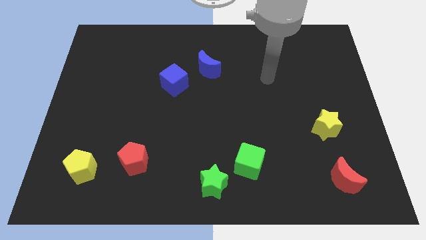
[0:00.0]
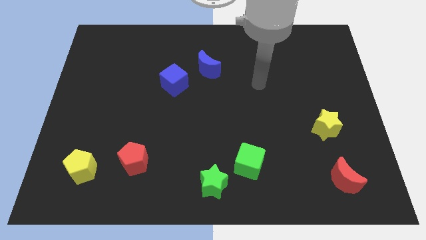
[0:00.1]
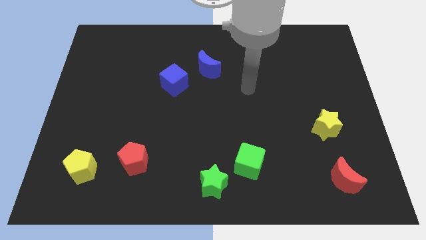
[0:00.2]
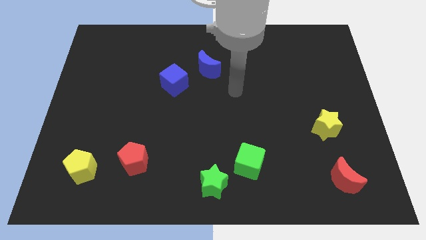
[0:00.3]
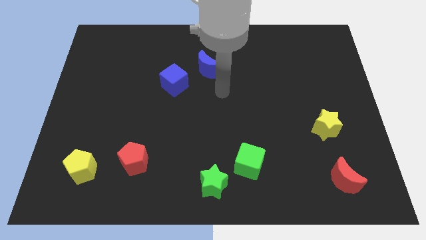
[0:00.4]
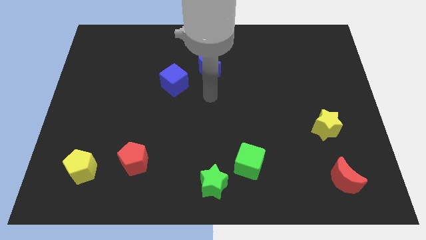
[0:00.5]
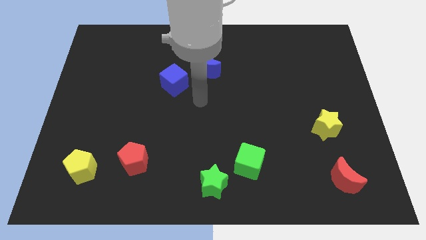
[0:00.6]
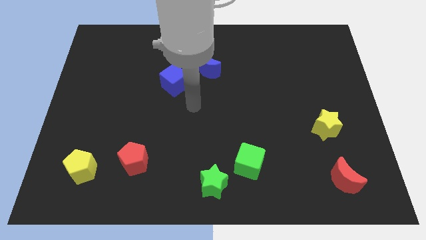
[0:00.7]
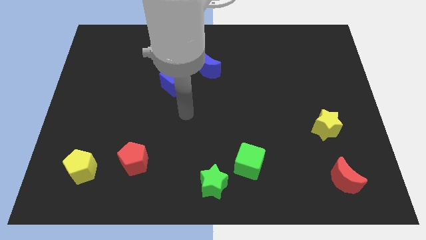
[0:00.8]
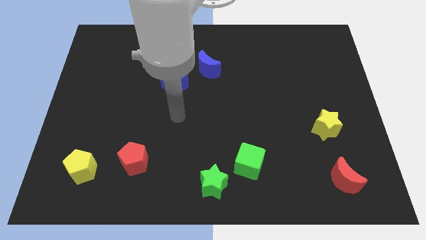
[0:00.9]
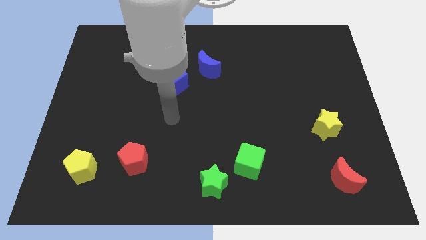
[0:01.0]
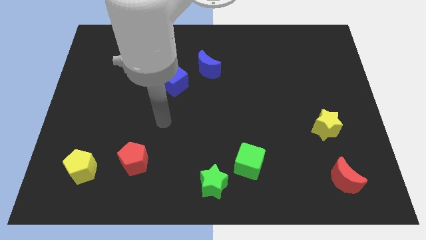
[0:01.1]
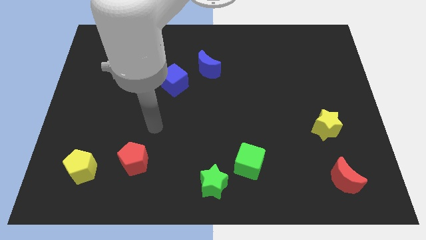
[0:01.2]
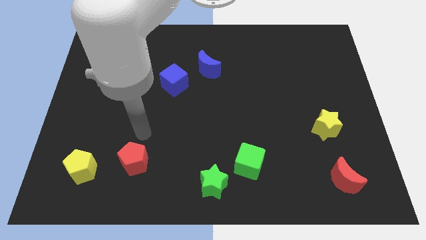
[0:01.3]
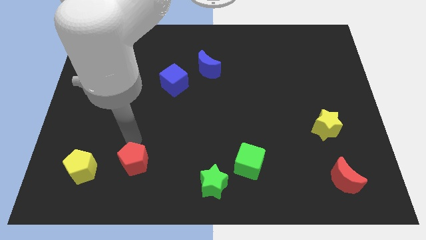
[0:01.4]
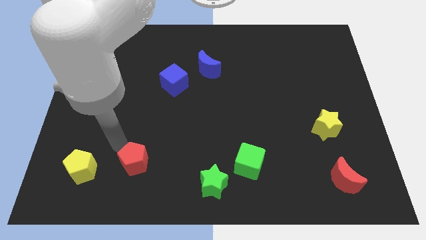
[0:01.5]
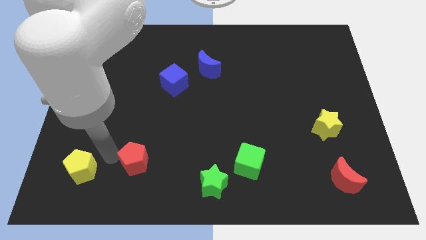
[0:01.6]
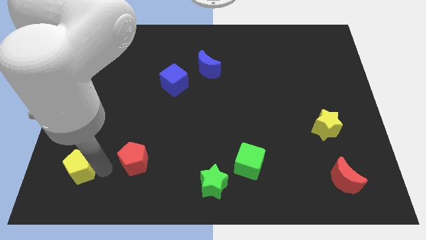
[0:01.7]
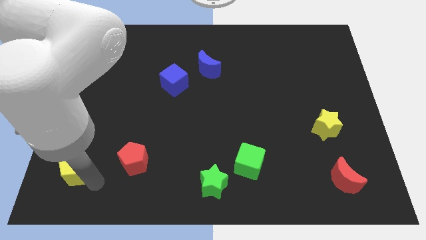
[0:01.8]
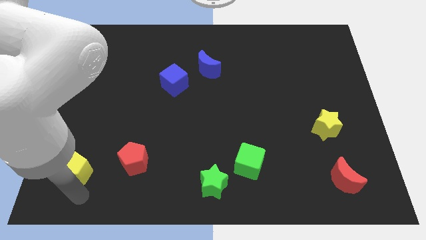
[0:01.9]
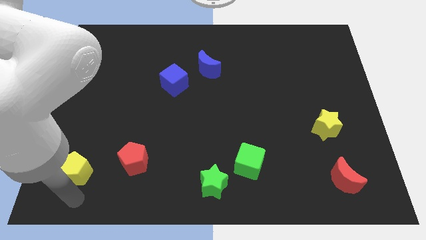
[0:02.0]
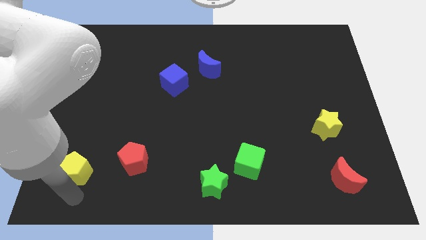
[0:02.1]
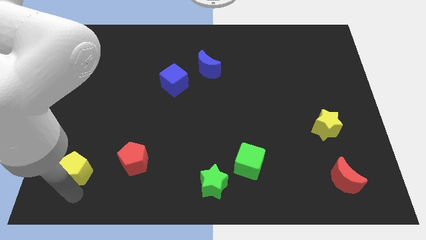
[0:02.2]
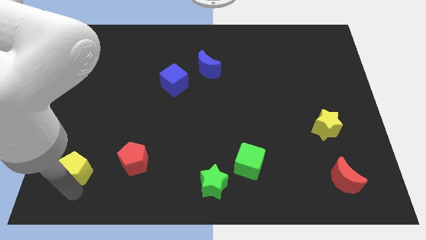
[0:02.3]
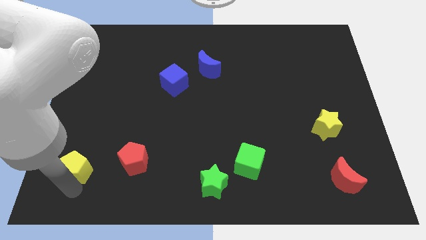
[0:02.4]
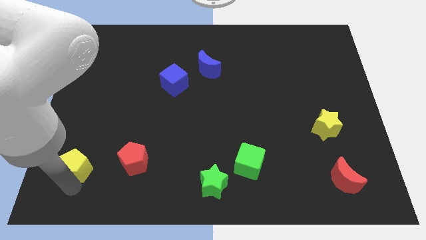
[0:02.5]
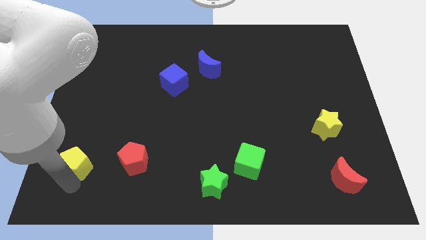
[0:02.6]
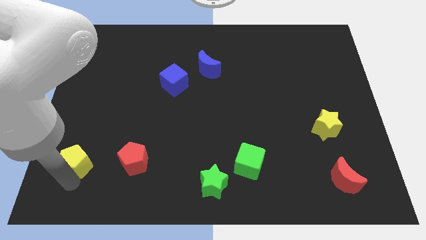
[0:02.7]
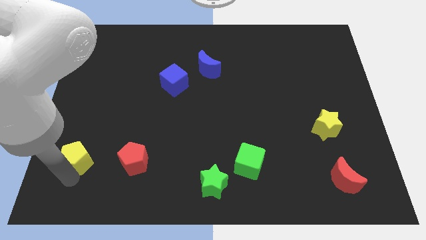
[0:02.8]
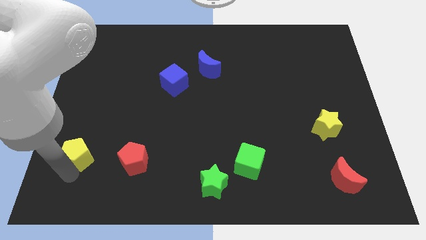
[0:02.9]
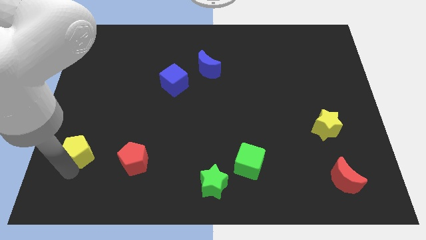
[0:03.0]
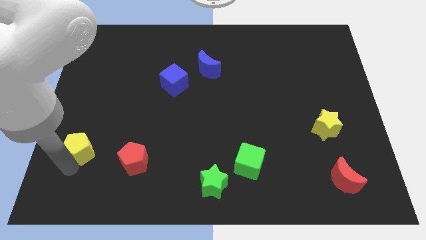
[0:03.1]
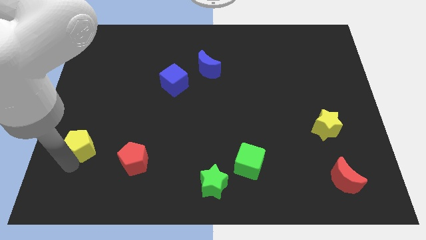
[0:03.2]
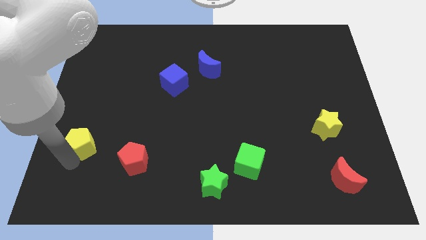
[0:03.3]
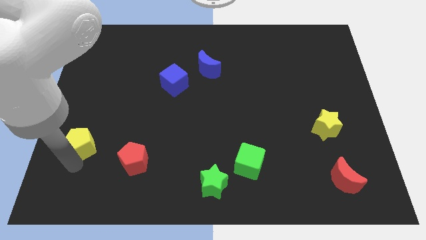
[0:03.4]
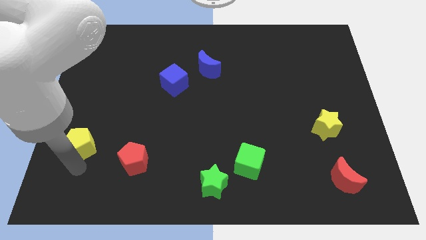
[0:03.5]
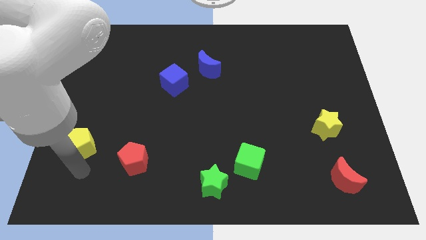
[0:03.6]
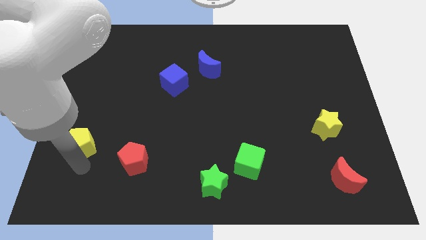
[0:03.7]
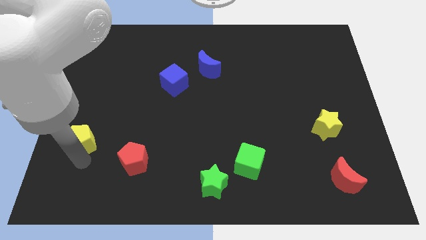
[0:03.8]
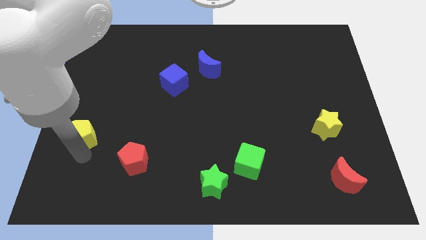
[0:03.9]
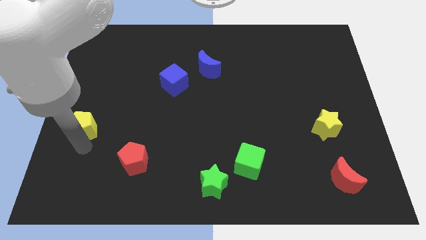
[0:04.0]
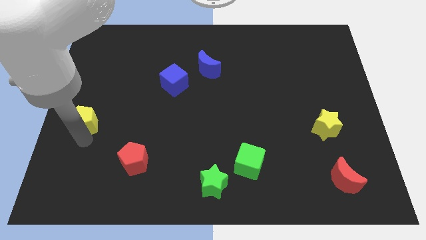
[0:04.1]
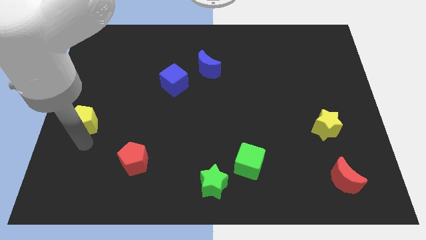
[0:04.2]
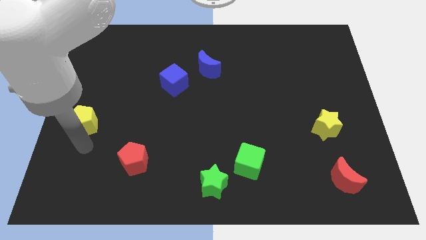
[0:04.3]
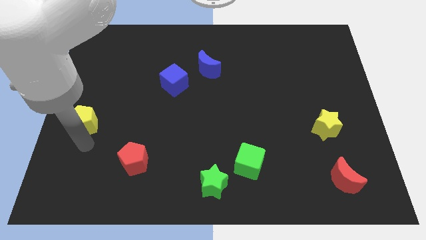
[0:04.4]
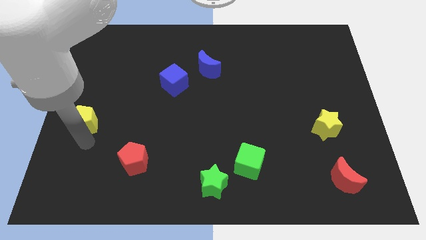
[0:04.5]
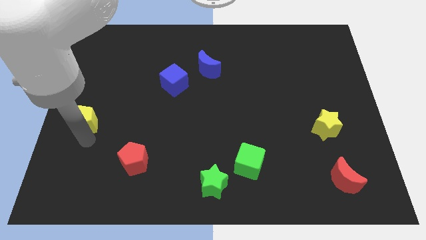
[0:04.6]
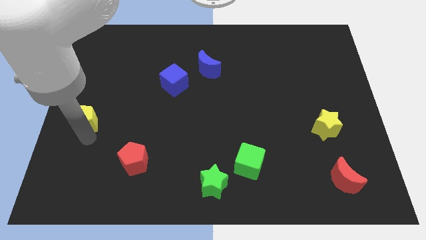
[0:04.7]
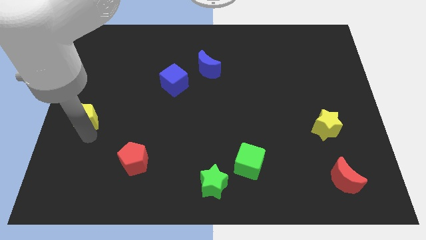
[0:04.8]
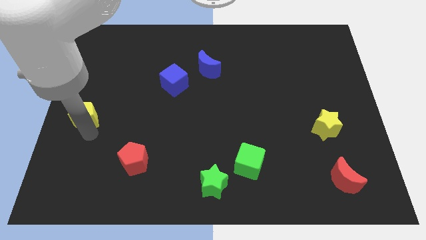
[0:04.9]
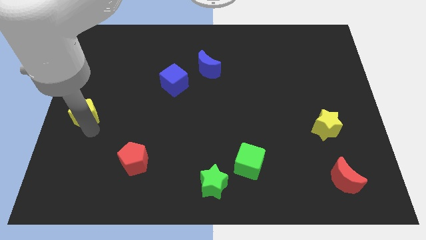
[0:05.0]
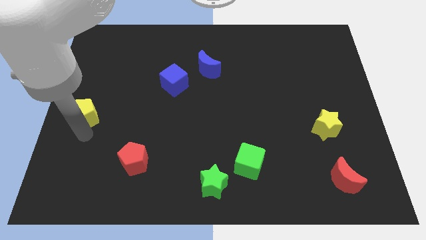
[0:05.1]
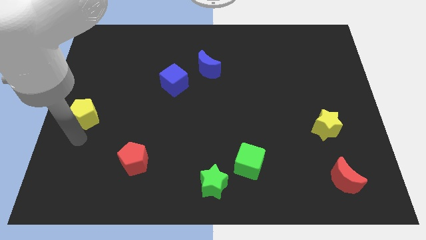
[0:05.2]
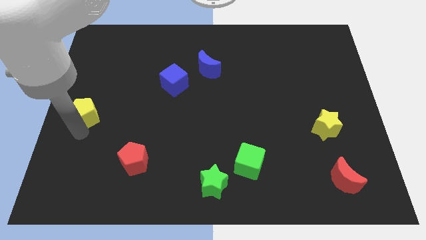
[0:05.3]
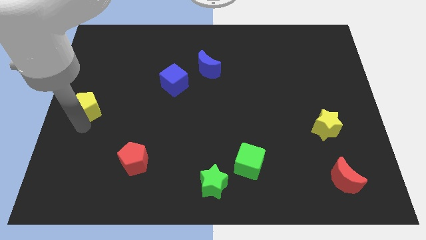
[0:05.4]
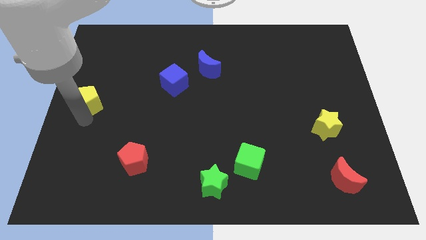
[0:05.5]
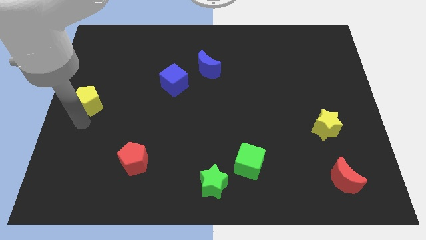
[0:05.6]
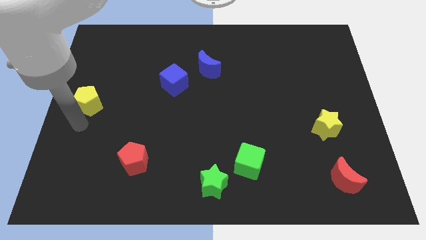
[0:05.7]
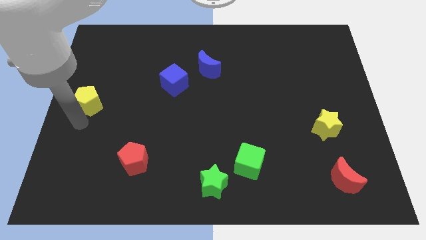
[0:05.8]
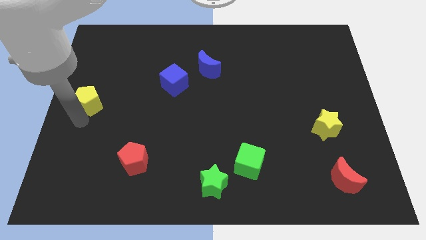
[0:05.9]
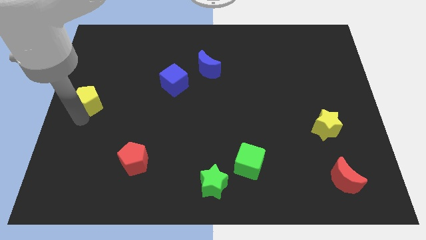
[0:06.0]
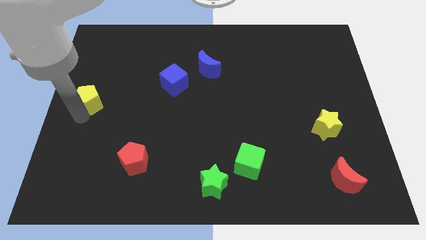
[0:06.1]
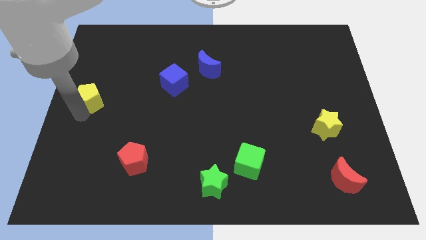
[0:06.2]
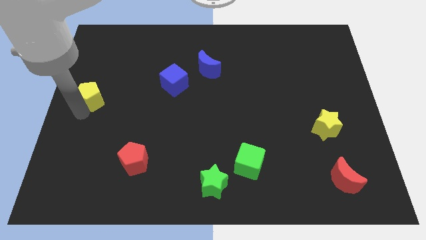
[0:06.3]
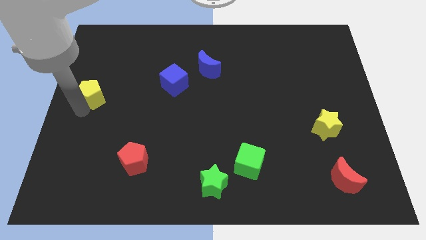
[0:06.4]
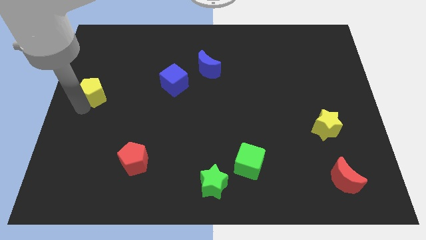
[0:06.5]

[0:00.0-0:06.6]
move the yellow pentagon up

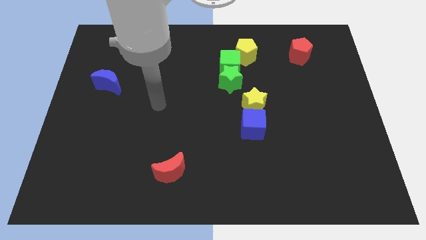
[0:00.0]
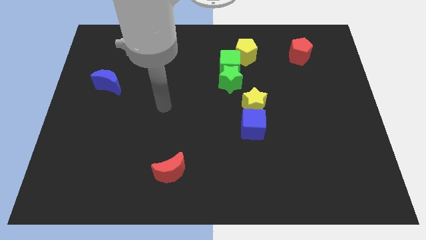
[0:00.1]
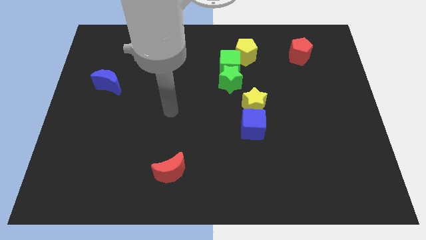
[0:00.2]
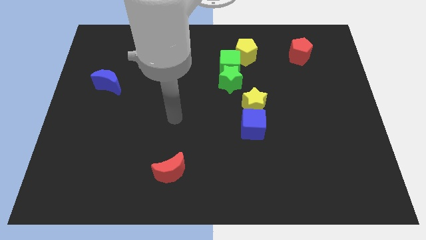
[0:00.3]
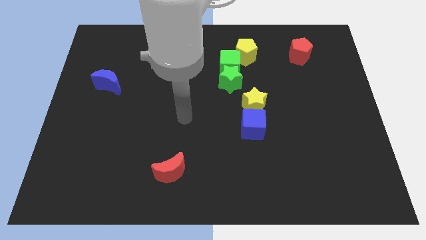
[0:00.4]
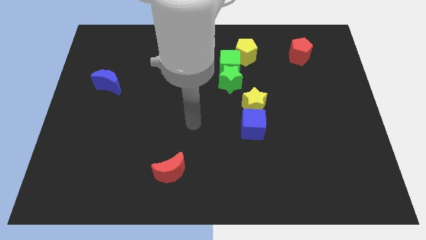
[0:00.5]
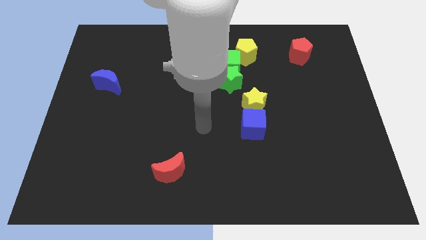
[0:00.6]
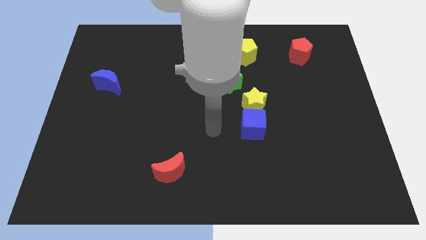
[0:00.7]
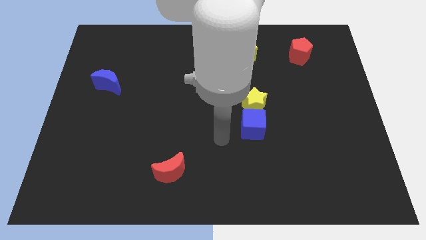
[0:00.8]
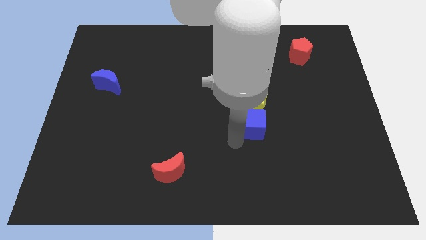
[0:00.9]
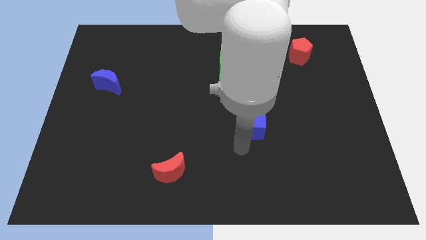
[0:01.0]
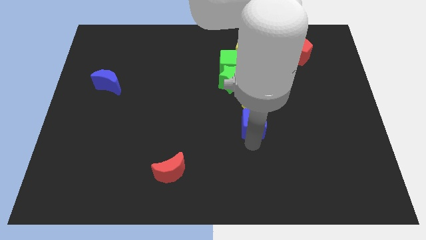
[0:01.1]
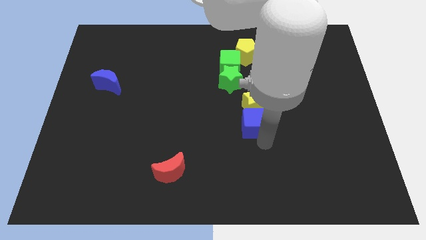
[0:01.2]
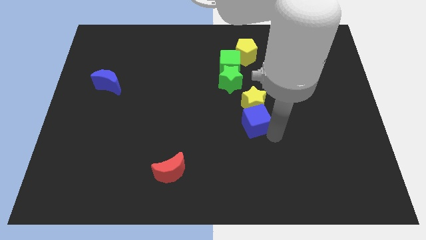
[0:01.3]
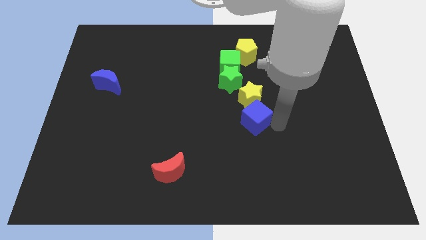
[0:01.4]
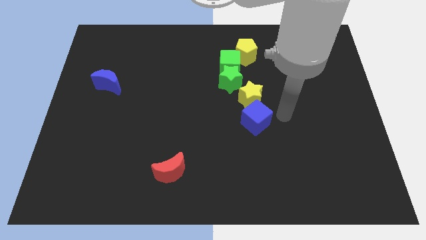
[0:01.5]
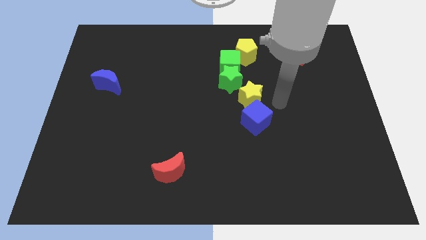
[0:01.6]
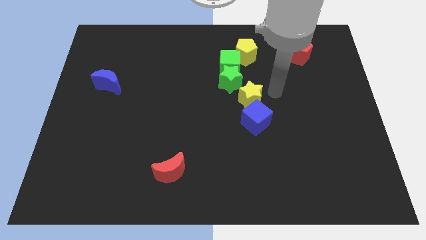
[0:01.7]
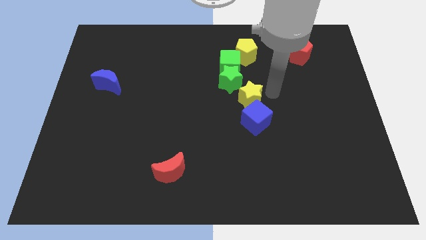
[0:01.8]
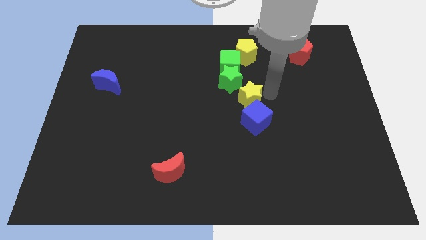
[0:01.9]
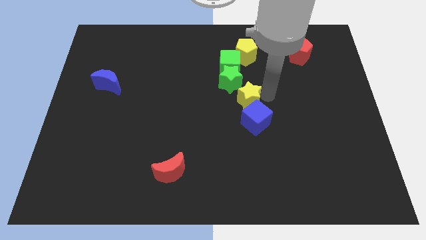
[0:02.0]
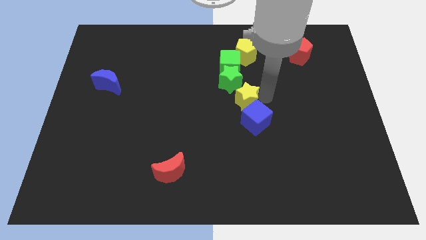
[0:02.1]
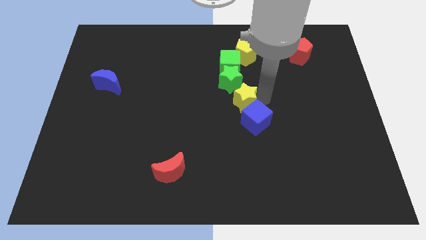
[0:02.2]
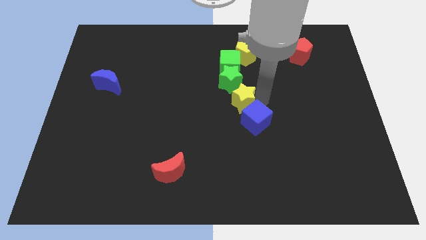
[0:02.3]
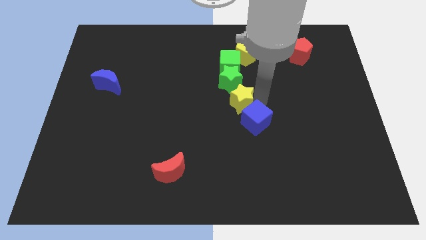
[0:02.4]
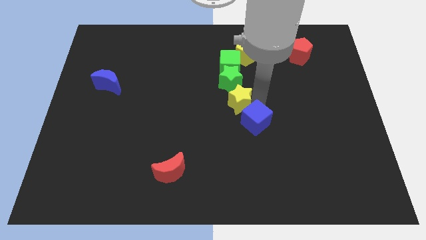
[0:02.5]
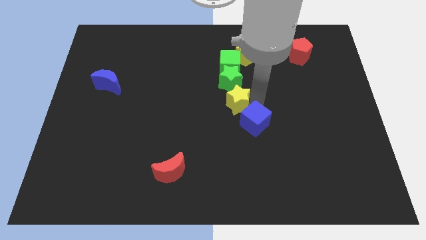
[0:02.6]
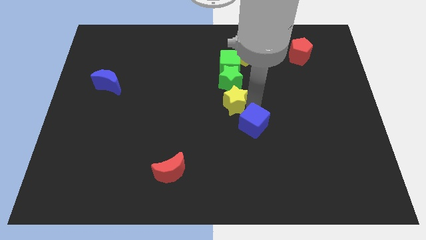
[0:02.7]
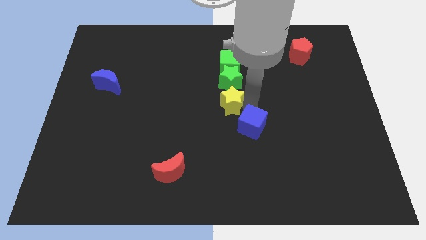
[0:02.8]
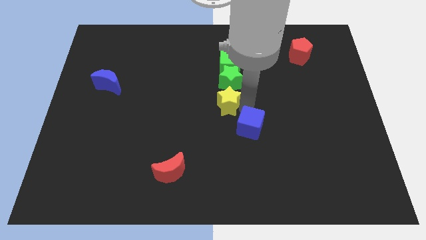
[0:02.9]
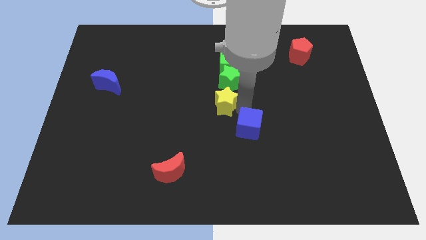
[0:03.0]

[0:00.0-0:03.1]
push the yellow star to the left somewhat
